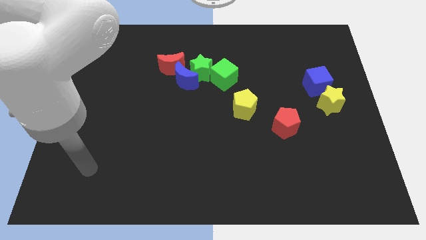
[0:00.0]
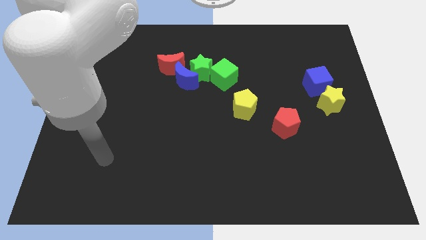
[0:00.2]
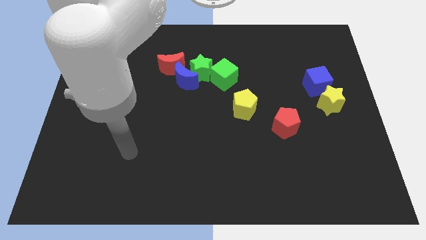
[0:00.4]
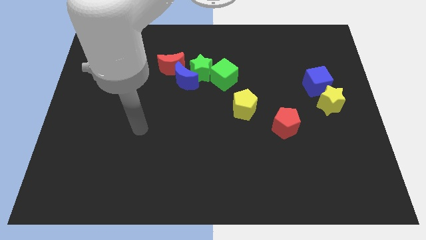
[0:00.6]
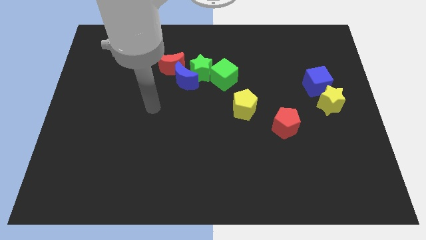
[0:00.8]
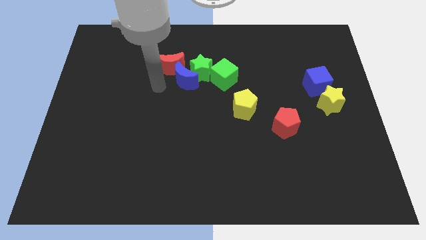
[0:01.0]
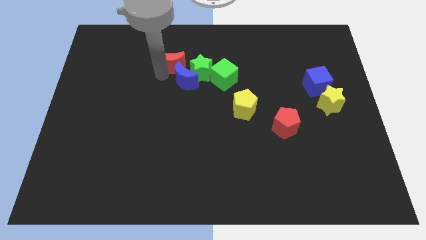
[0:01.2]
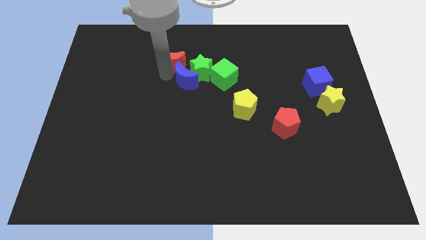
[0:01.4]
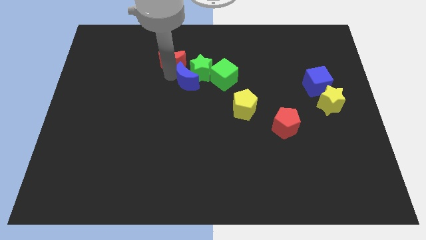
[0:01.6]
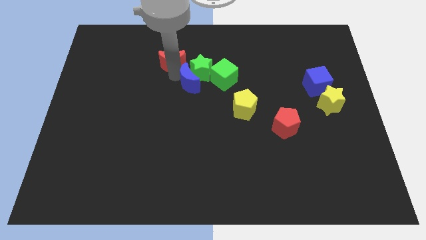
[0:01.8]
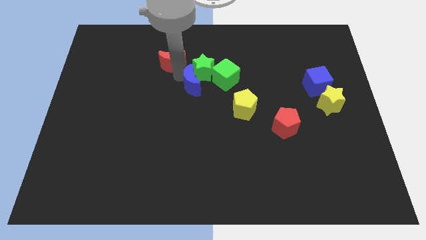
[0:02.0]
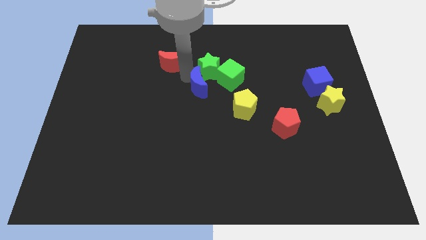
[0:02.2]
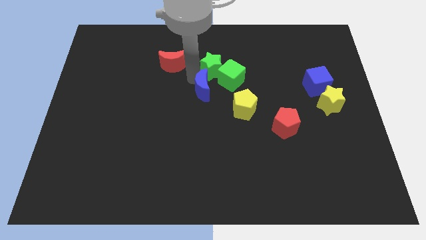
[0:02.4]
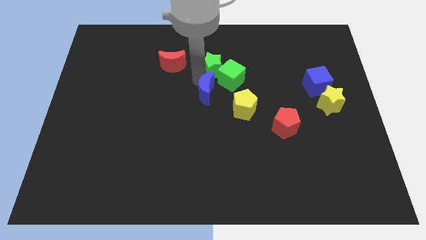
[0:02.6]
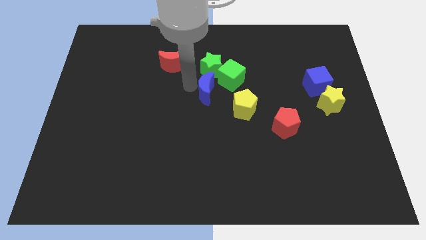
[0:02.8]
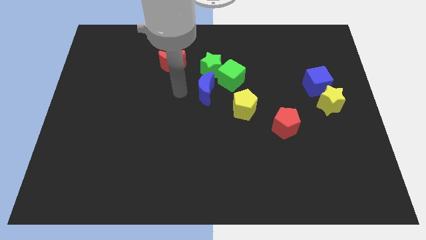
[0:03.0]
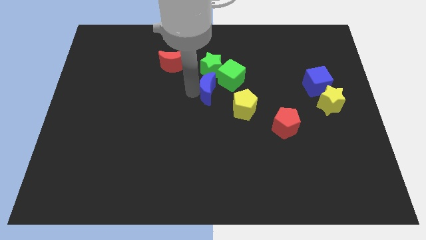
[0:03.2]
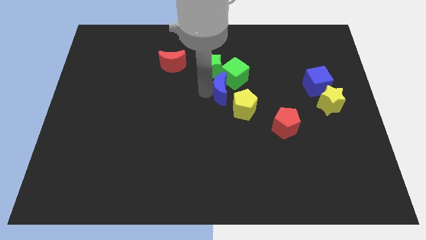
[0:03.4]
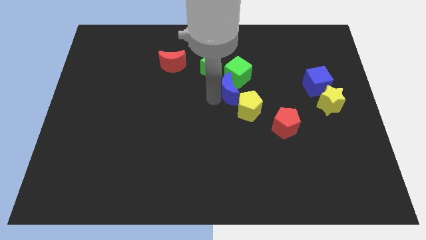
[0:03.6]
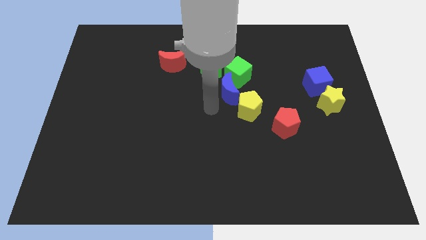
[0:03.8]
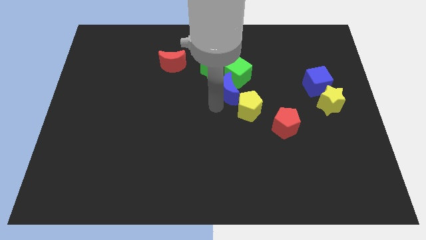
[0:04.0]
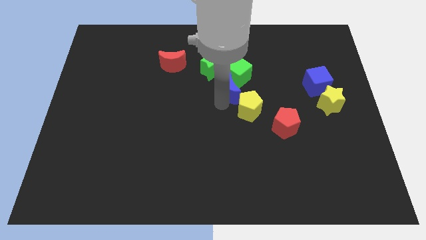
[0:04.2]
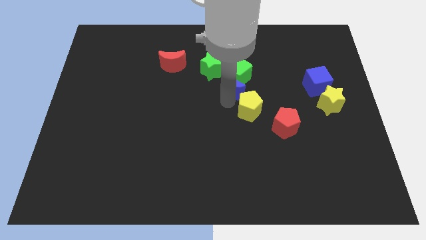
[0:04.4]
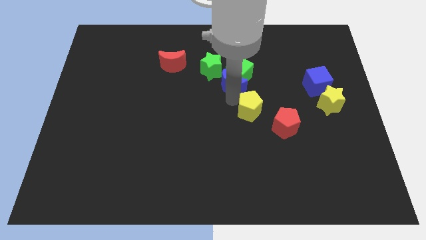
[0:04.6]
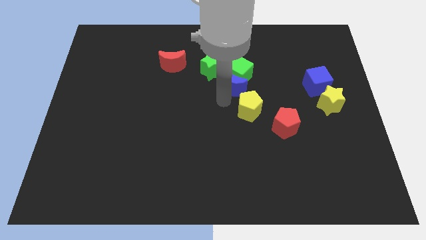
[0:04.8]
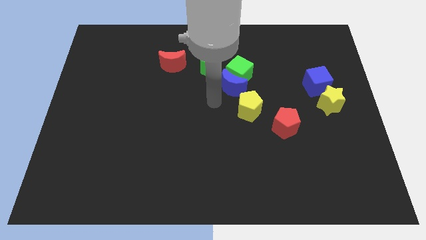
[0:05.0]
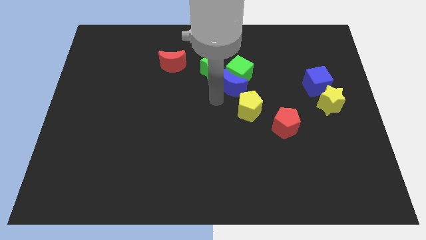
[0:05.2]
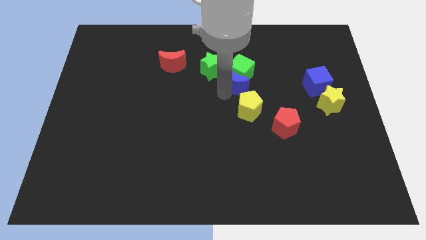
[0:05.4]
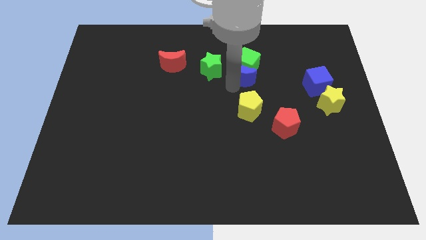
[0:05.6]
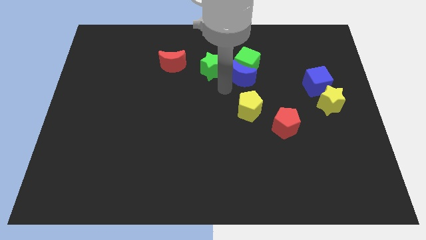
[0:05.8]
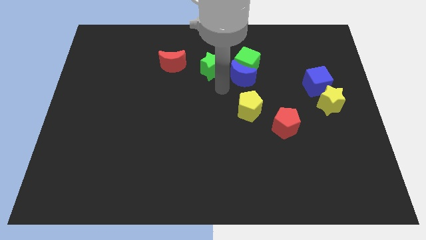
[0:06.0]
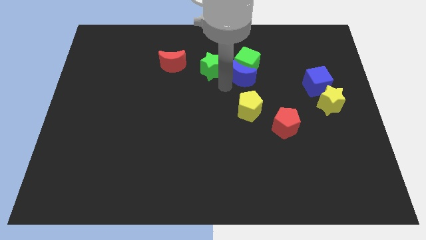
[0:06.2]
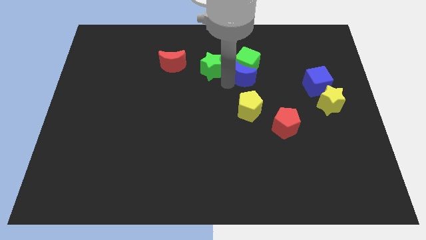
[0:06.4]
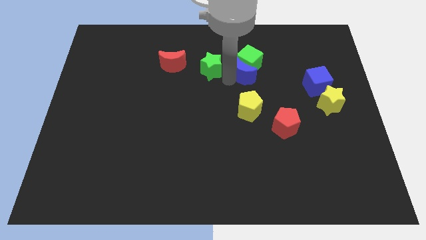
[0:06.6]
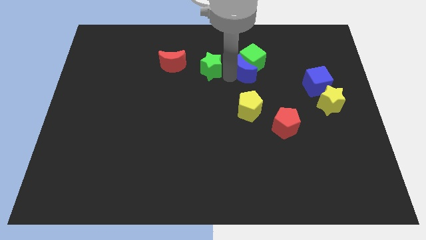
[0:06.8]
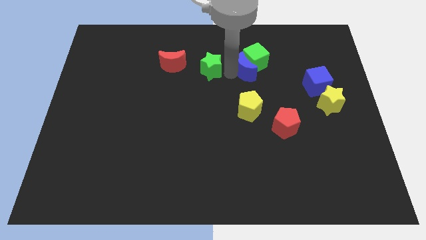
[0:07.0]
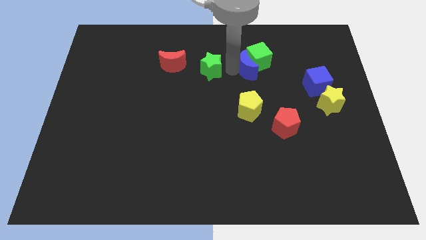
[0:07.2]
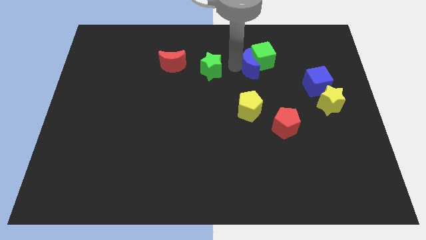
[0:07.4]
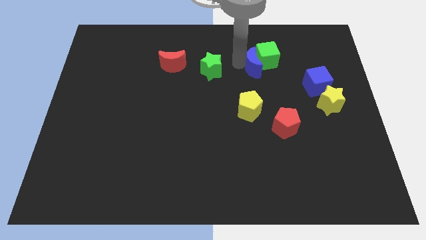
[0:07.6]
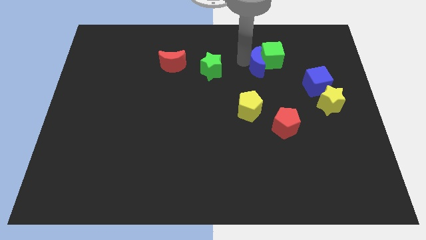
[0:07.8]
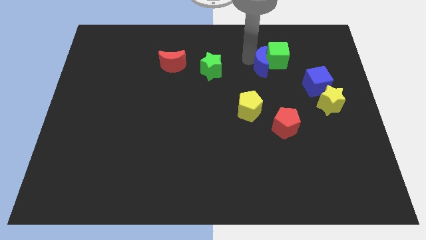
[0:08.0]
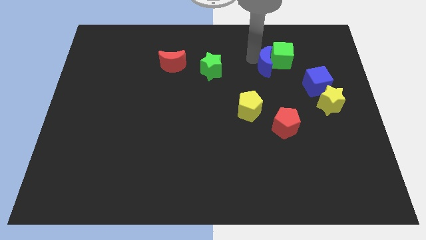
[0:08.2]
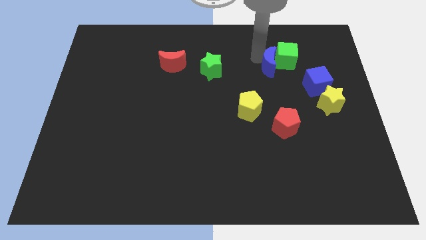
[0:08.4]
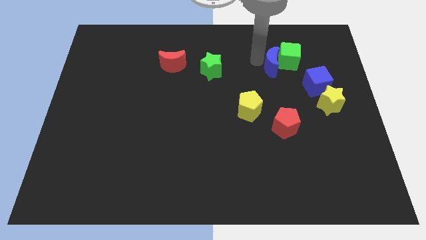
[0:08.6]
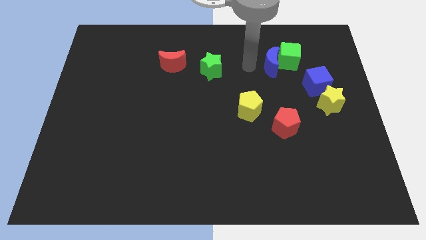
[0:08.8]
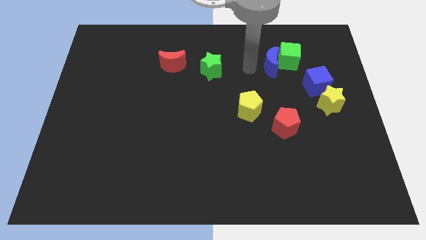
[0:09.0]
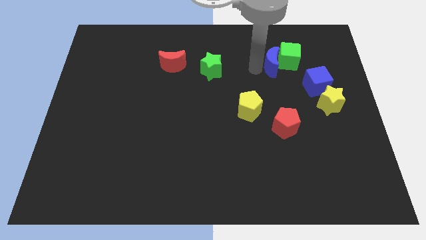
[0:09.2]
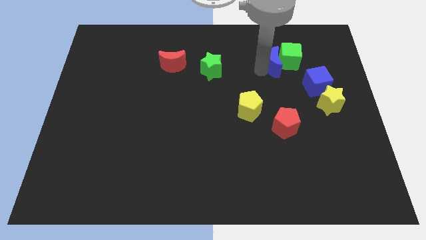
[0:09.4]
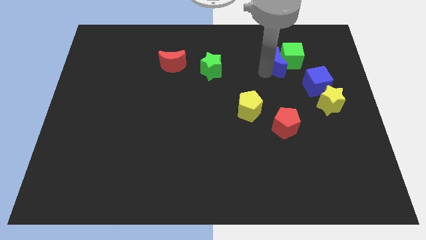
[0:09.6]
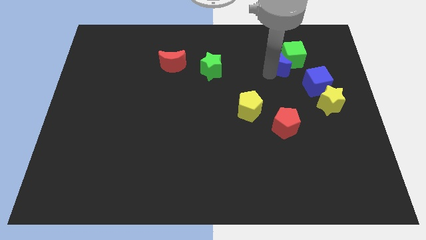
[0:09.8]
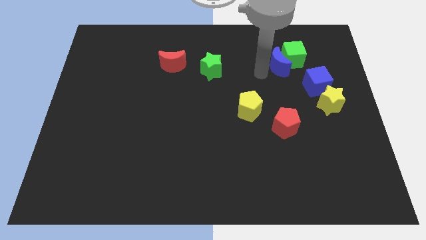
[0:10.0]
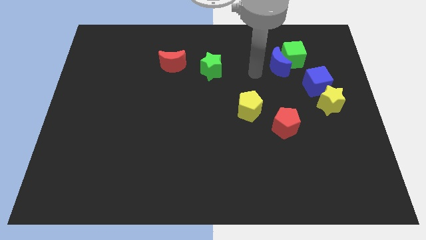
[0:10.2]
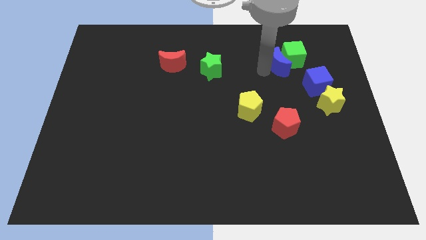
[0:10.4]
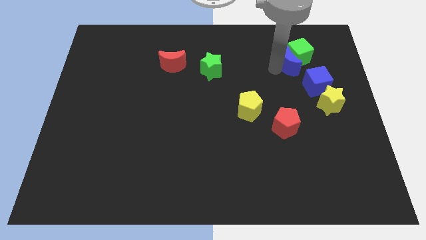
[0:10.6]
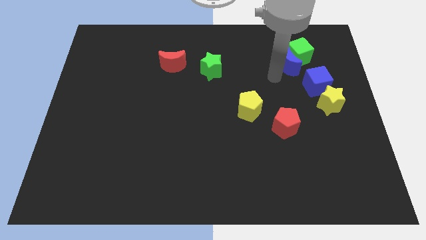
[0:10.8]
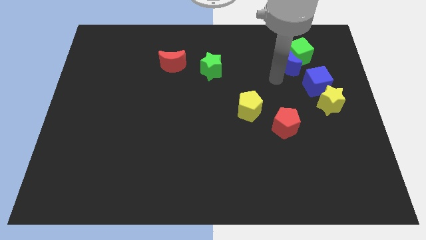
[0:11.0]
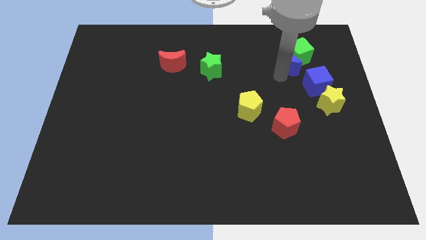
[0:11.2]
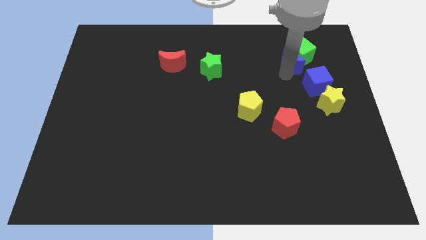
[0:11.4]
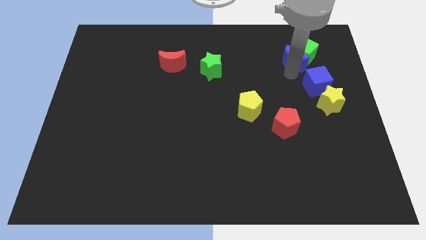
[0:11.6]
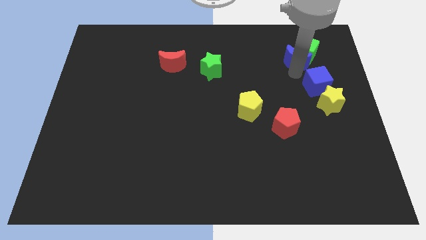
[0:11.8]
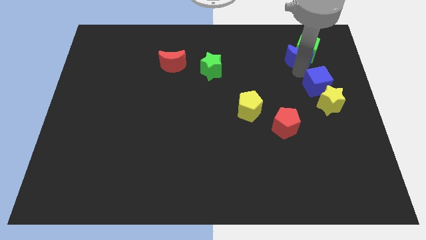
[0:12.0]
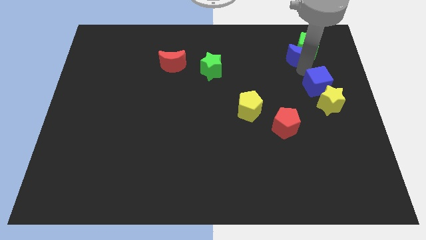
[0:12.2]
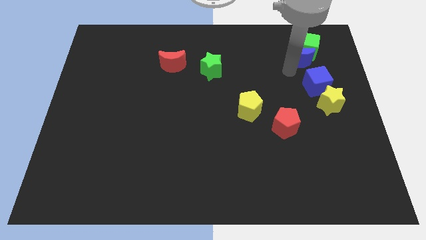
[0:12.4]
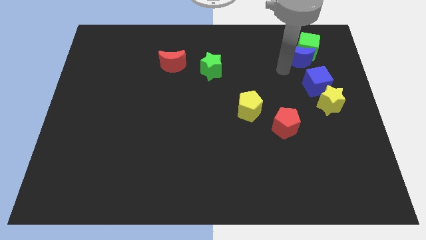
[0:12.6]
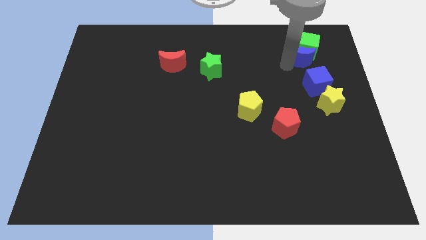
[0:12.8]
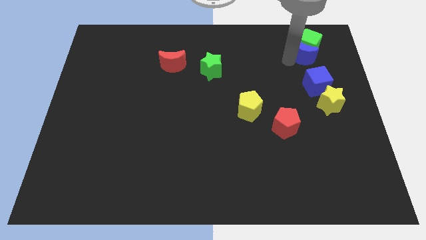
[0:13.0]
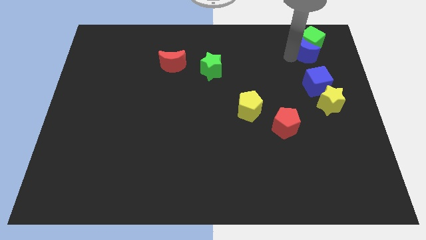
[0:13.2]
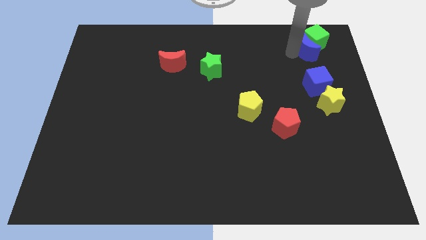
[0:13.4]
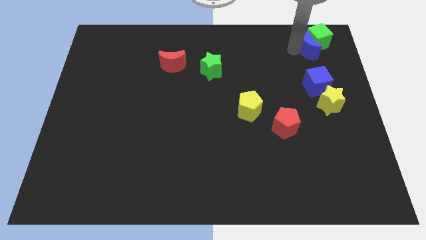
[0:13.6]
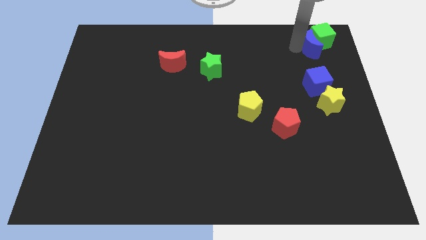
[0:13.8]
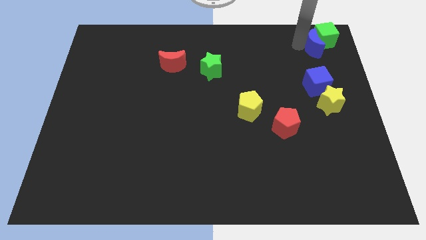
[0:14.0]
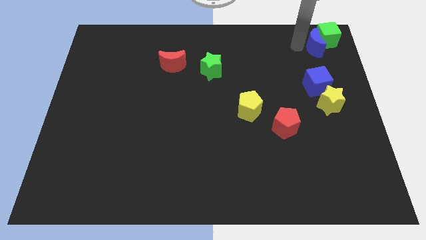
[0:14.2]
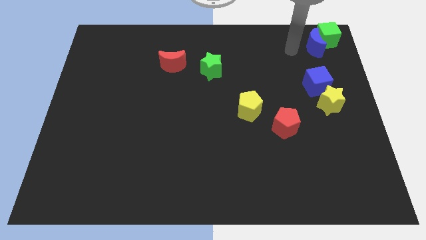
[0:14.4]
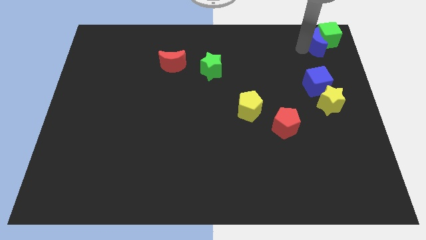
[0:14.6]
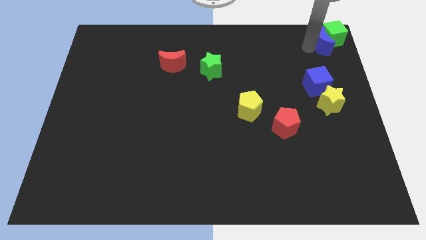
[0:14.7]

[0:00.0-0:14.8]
slide the blue moon to the top right of the board
